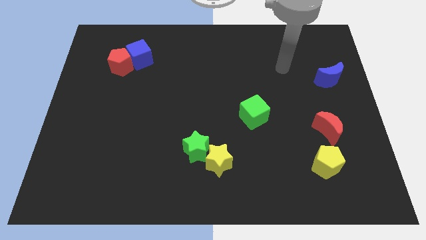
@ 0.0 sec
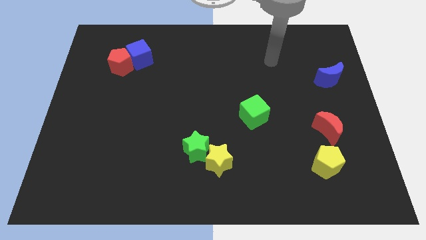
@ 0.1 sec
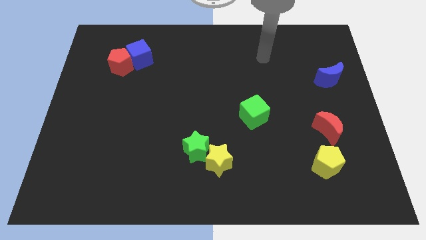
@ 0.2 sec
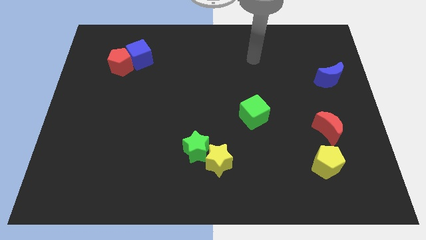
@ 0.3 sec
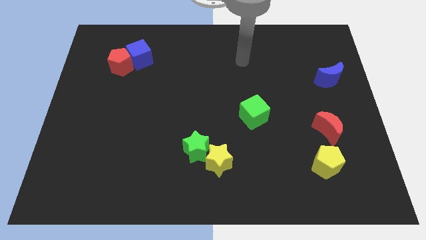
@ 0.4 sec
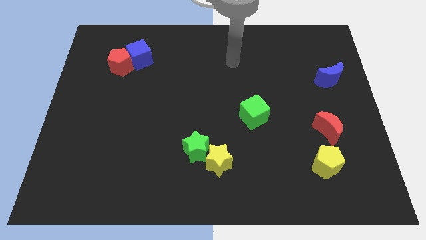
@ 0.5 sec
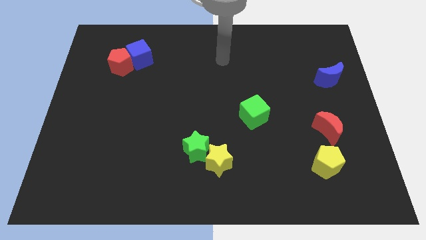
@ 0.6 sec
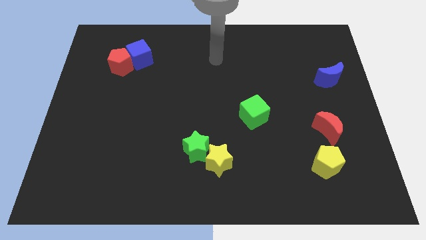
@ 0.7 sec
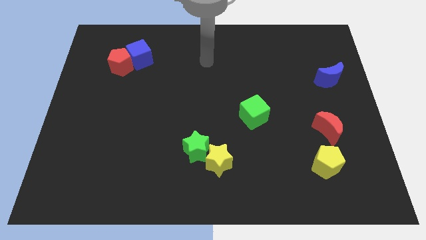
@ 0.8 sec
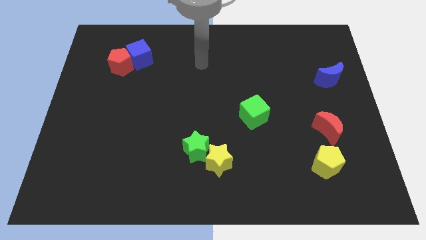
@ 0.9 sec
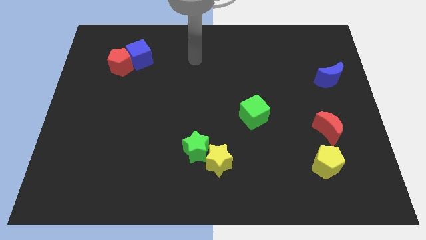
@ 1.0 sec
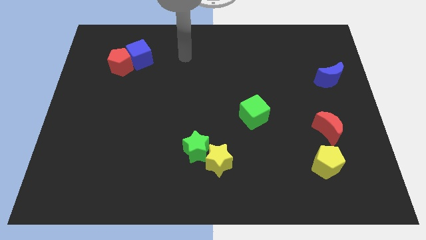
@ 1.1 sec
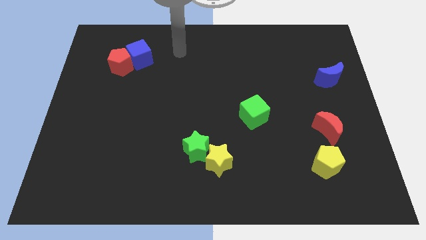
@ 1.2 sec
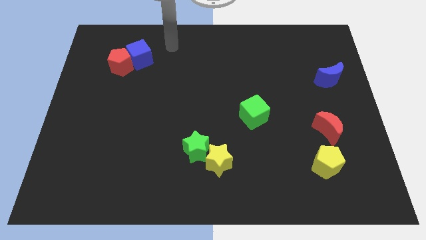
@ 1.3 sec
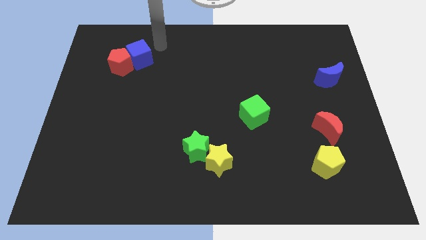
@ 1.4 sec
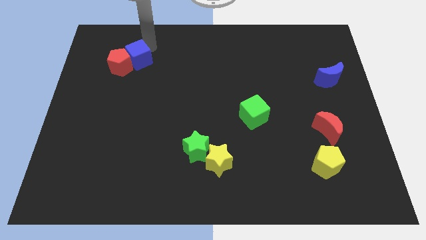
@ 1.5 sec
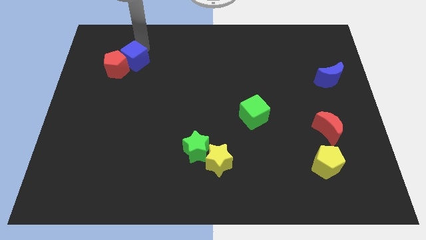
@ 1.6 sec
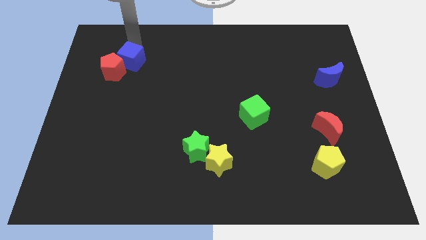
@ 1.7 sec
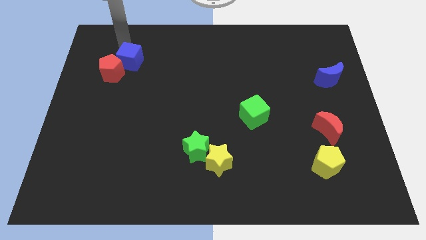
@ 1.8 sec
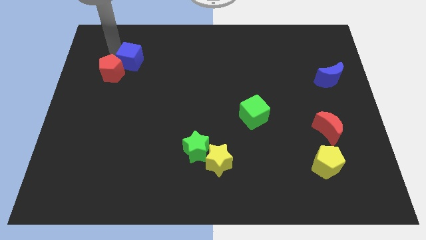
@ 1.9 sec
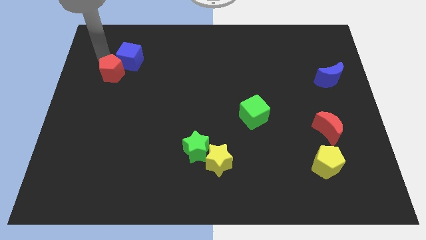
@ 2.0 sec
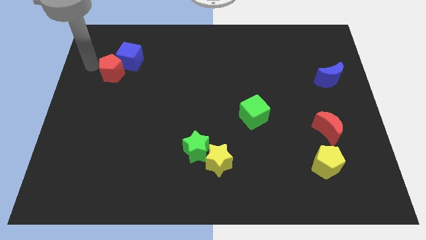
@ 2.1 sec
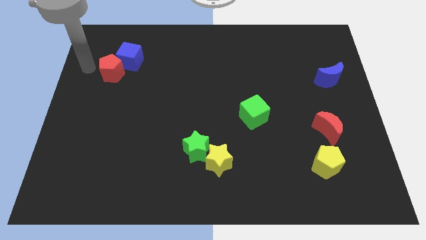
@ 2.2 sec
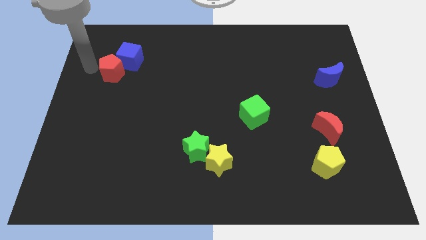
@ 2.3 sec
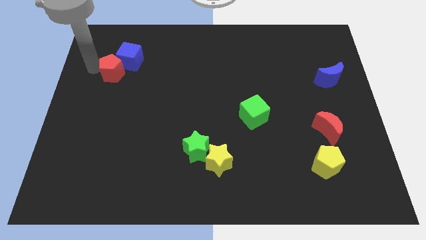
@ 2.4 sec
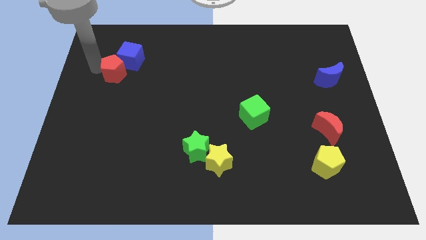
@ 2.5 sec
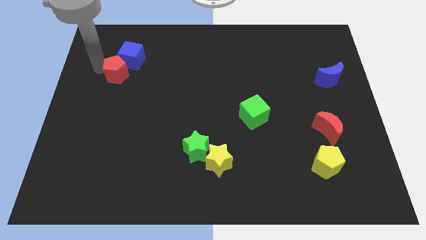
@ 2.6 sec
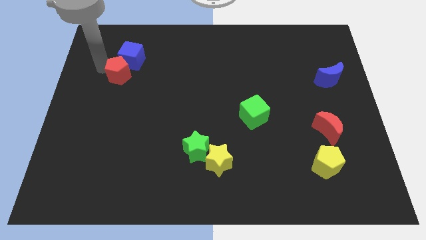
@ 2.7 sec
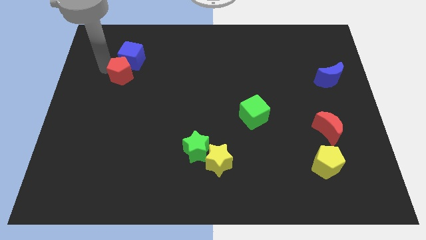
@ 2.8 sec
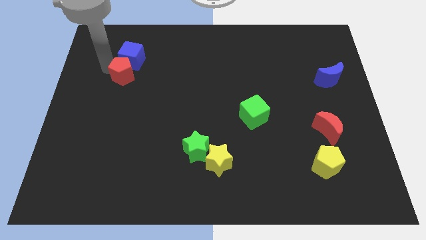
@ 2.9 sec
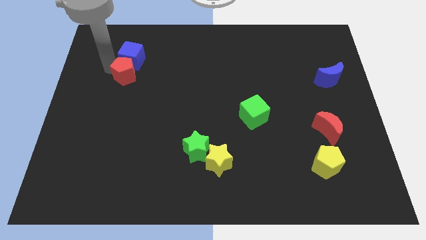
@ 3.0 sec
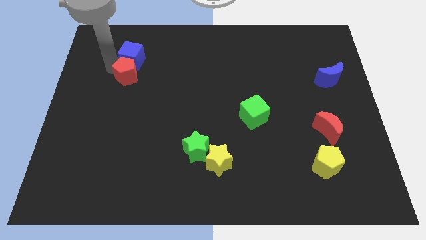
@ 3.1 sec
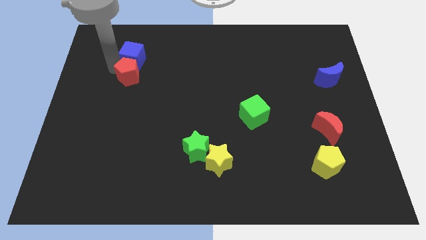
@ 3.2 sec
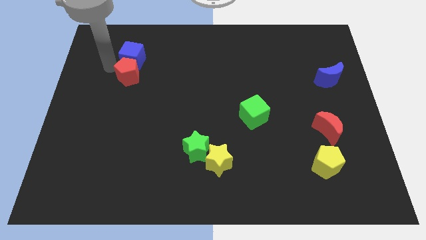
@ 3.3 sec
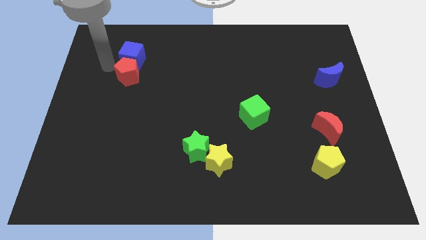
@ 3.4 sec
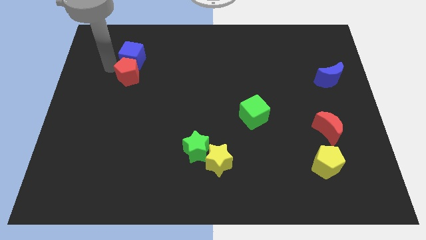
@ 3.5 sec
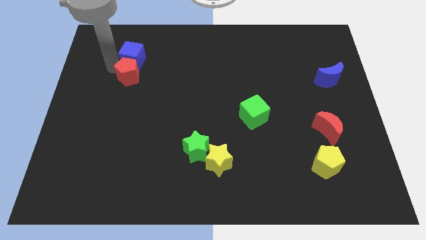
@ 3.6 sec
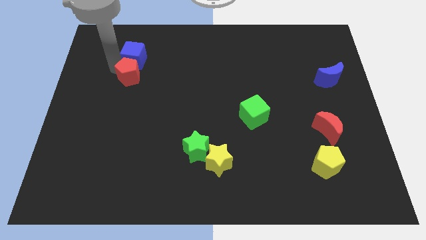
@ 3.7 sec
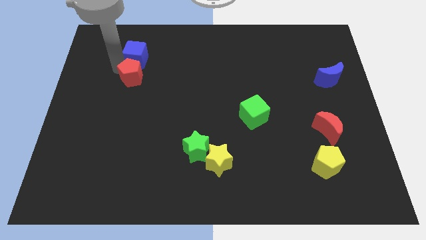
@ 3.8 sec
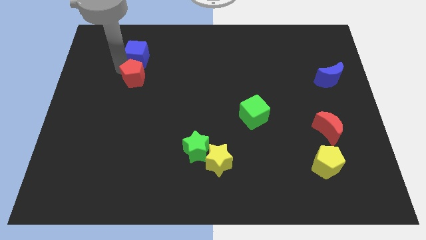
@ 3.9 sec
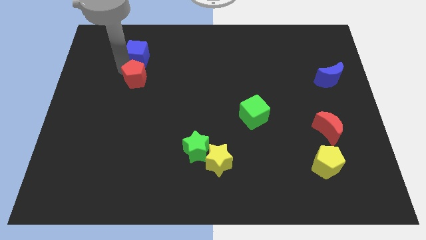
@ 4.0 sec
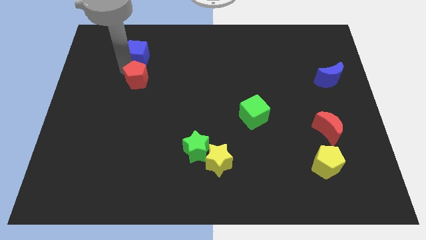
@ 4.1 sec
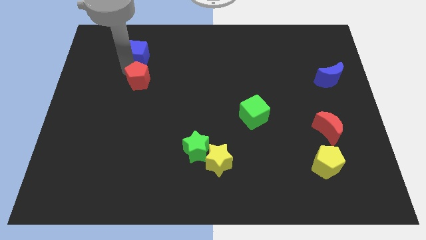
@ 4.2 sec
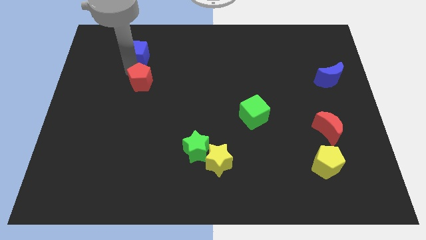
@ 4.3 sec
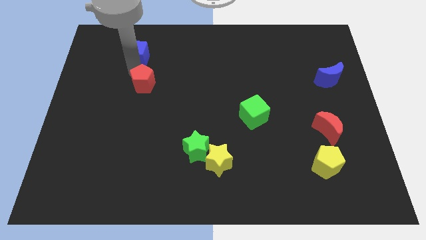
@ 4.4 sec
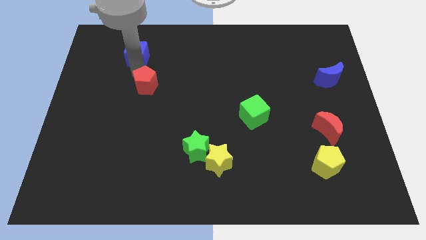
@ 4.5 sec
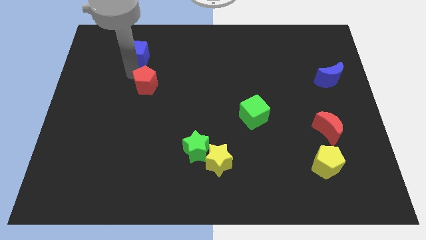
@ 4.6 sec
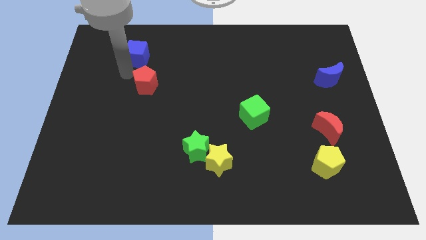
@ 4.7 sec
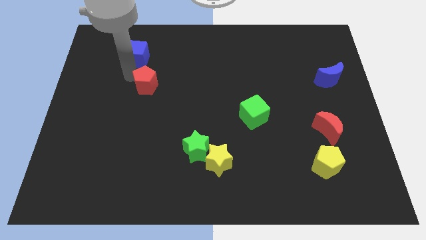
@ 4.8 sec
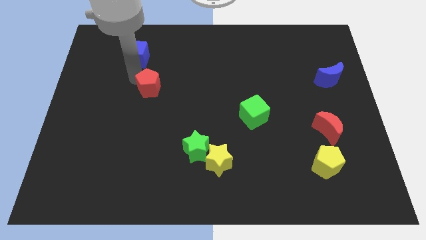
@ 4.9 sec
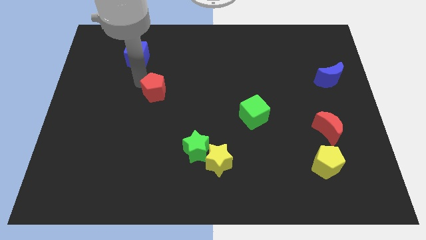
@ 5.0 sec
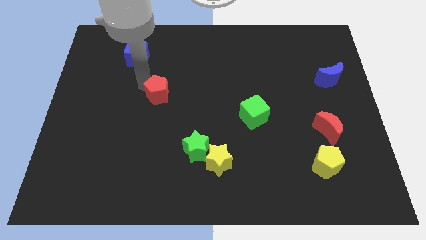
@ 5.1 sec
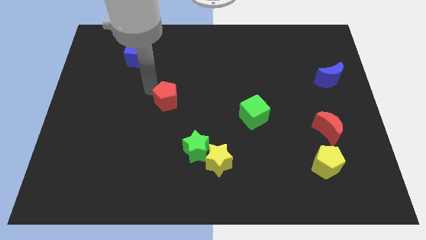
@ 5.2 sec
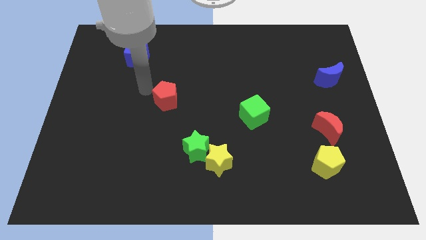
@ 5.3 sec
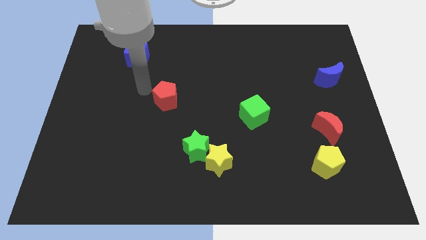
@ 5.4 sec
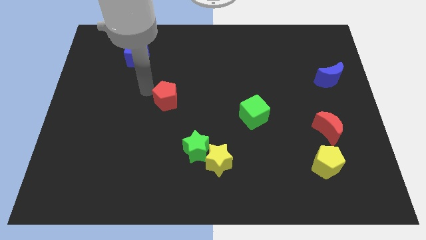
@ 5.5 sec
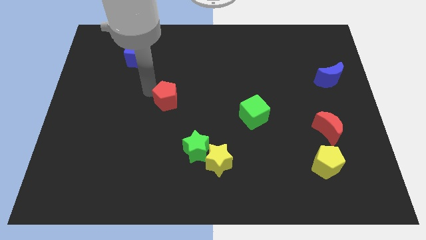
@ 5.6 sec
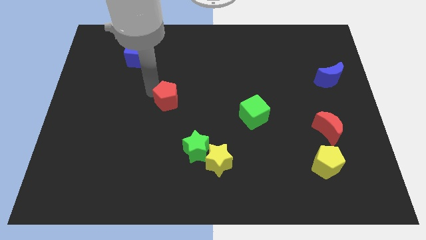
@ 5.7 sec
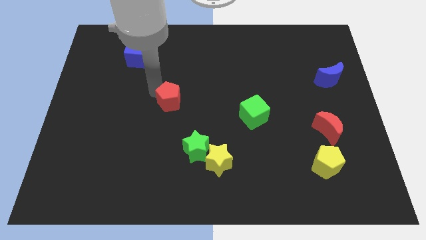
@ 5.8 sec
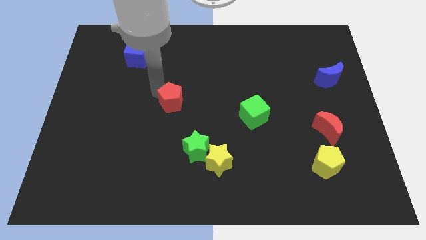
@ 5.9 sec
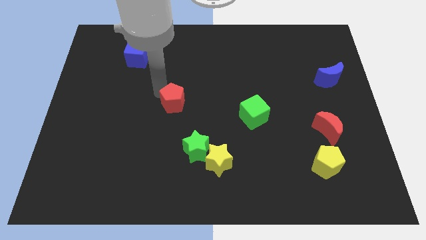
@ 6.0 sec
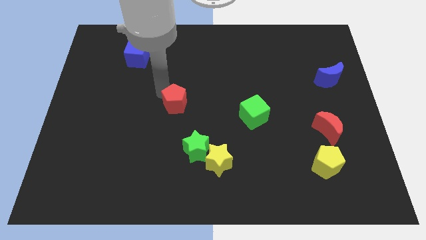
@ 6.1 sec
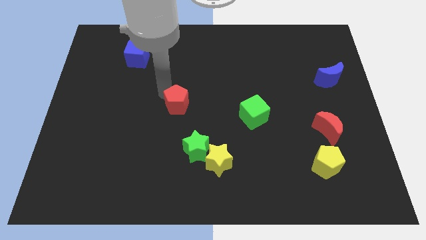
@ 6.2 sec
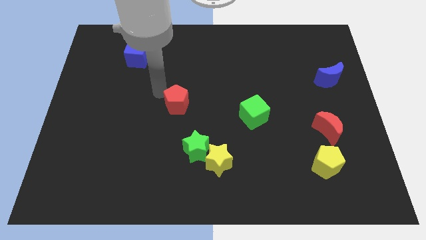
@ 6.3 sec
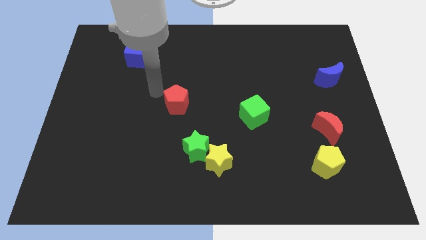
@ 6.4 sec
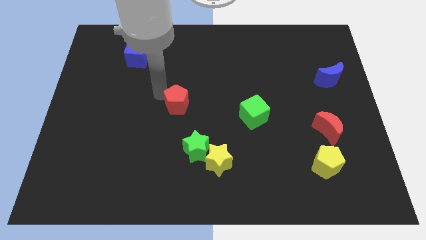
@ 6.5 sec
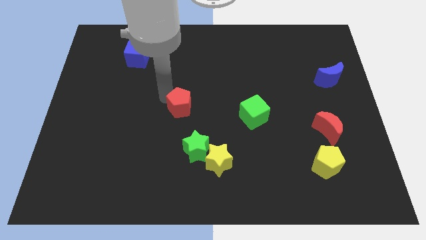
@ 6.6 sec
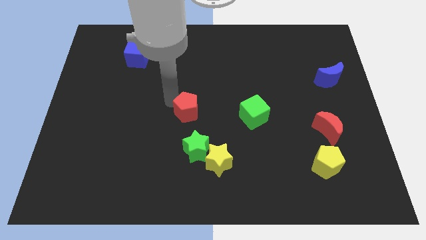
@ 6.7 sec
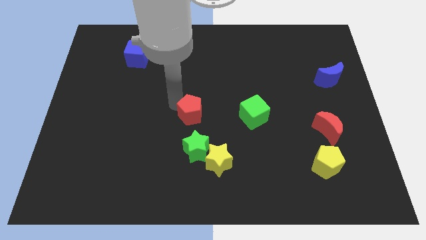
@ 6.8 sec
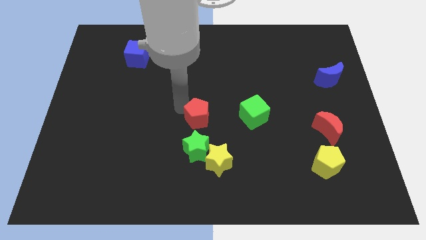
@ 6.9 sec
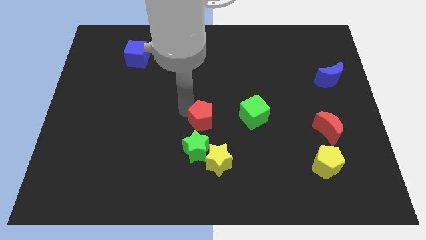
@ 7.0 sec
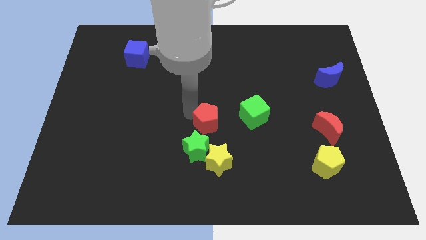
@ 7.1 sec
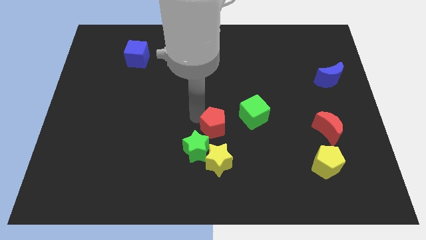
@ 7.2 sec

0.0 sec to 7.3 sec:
put the red pentagon diagonally down and to the left of the green cube

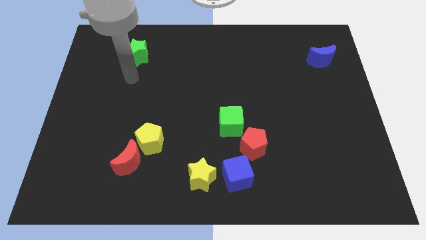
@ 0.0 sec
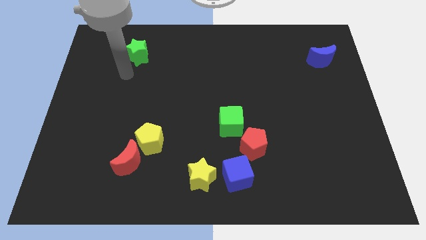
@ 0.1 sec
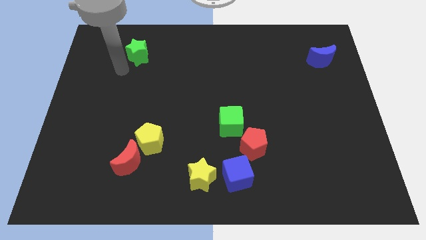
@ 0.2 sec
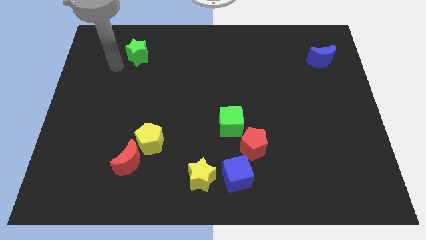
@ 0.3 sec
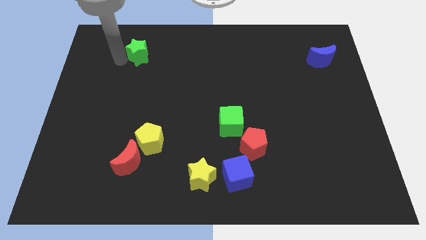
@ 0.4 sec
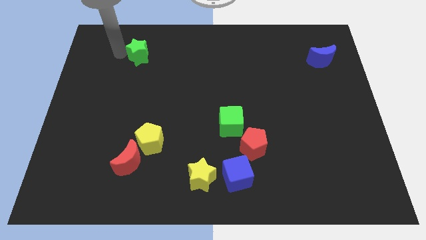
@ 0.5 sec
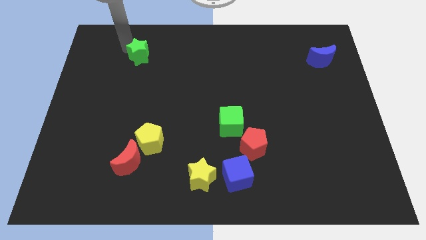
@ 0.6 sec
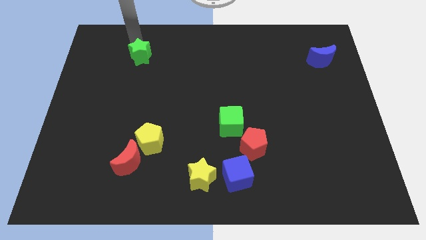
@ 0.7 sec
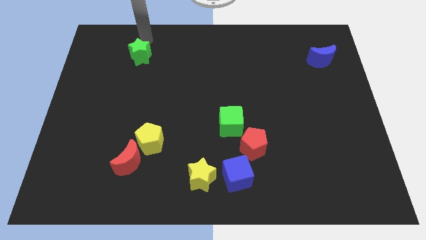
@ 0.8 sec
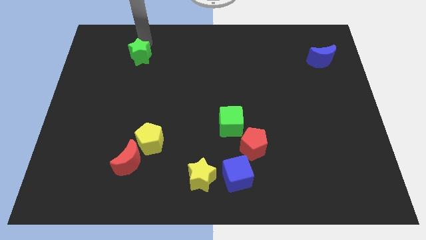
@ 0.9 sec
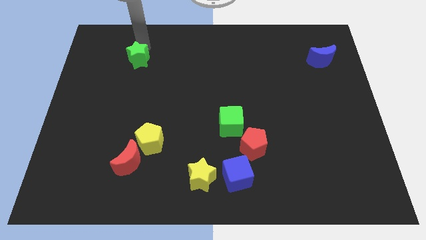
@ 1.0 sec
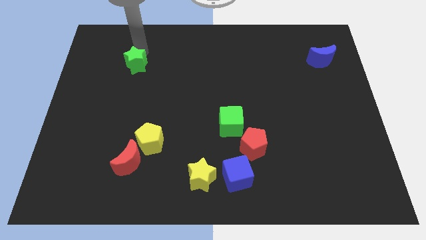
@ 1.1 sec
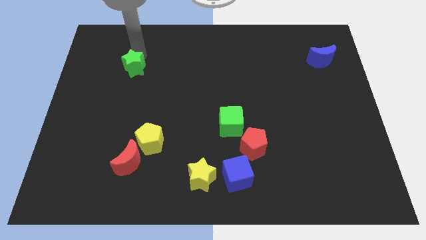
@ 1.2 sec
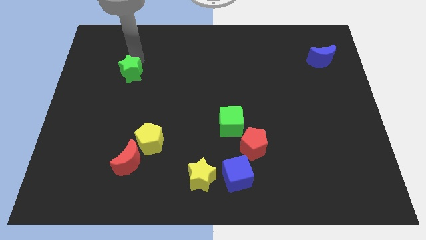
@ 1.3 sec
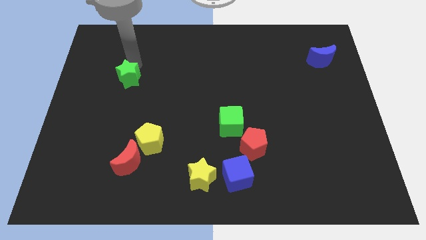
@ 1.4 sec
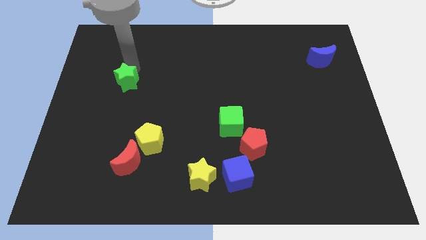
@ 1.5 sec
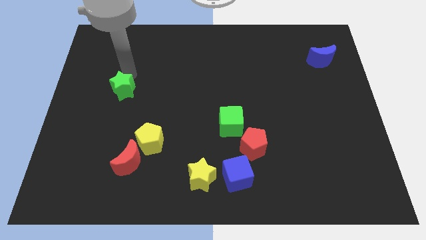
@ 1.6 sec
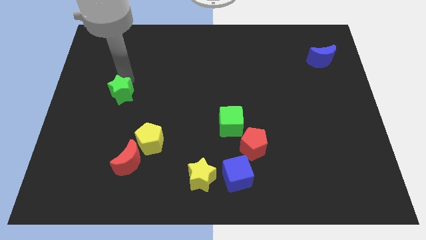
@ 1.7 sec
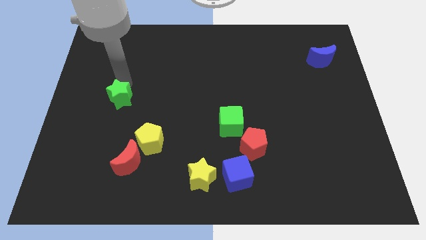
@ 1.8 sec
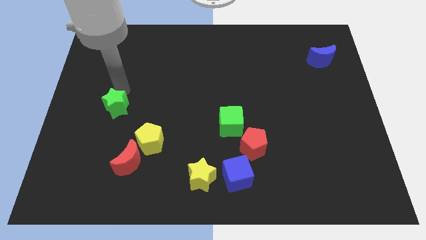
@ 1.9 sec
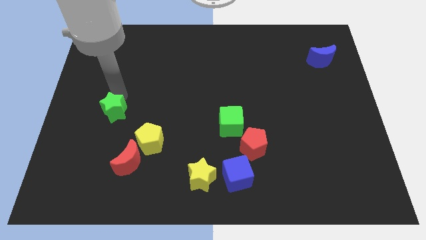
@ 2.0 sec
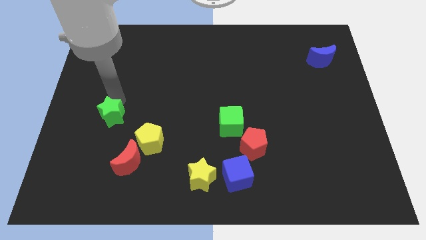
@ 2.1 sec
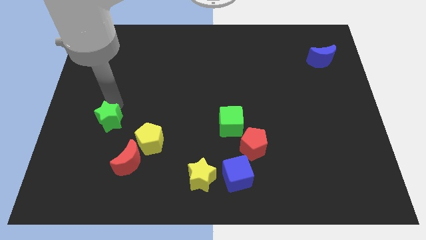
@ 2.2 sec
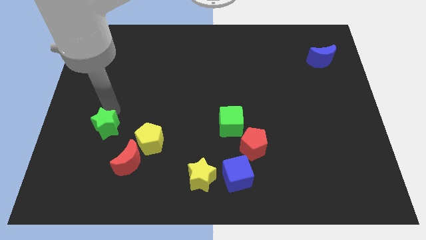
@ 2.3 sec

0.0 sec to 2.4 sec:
slide the green star to the top left of the red moon
